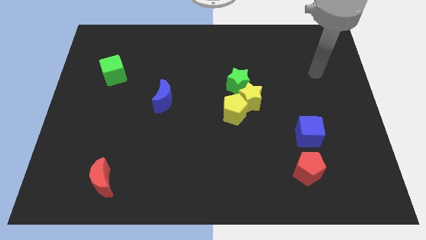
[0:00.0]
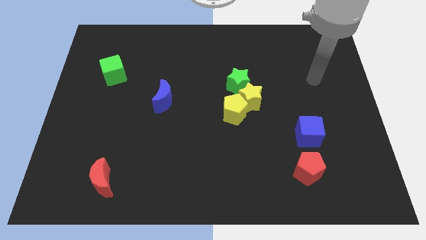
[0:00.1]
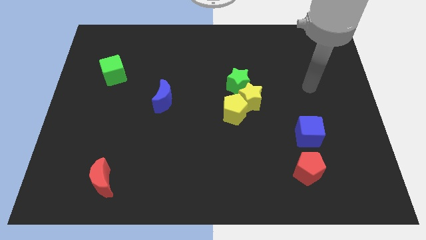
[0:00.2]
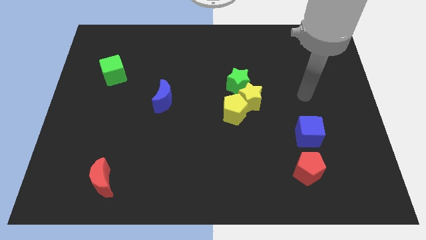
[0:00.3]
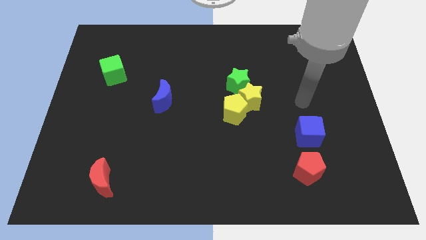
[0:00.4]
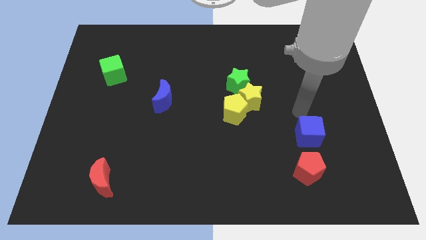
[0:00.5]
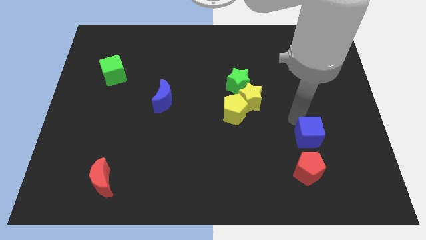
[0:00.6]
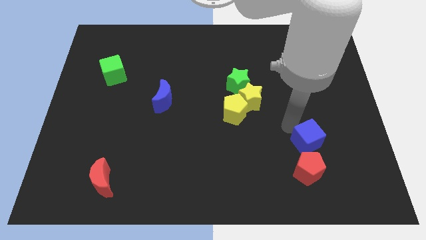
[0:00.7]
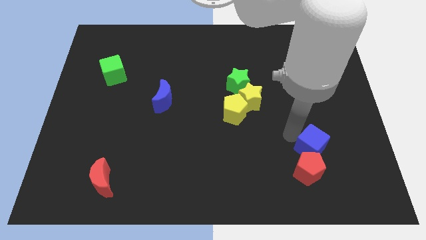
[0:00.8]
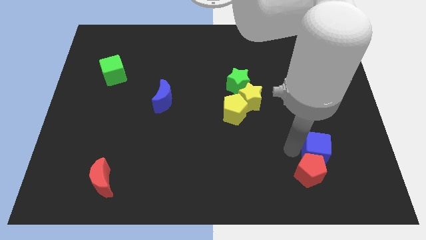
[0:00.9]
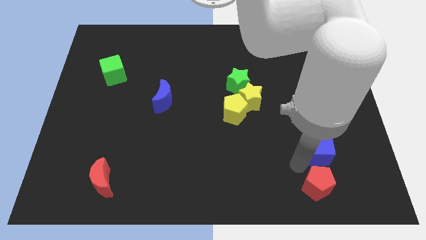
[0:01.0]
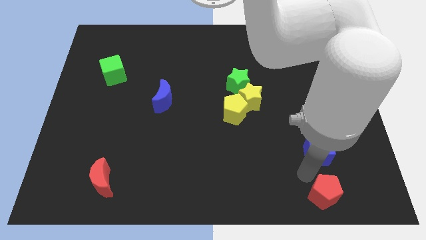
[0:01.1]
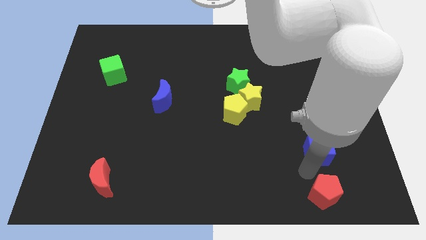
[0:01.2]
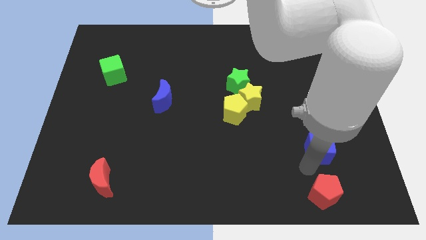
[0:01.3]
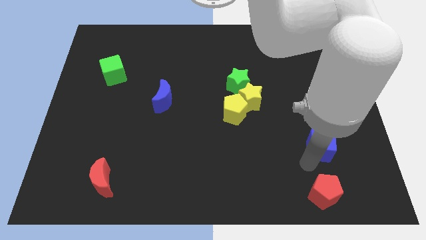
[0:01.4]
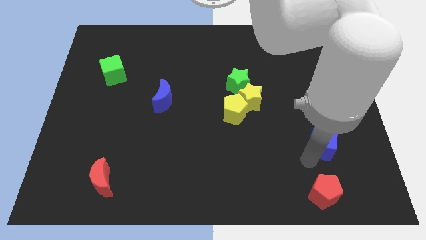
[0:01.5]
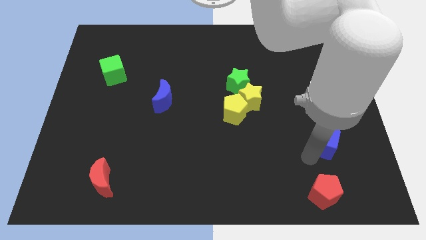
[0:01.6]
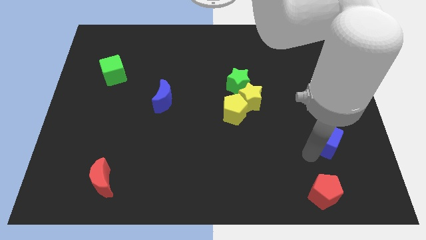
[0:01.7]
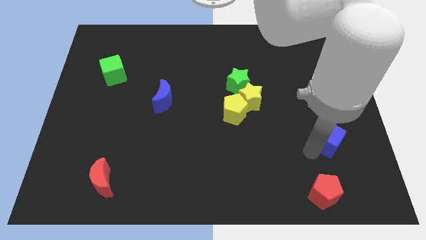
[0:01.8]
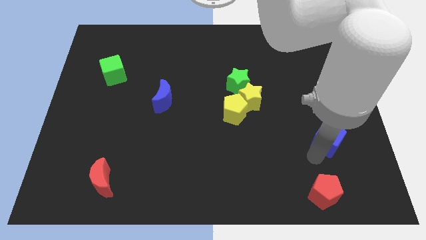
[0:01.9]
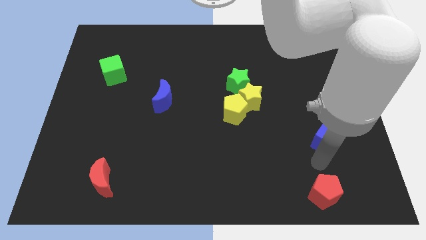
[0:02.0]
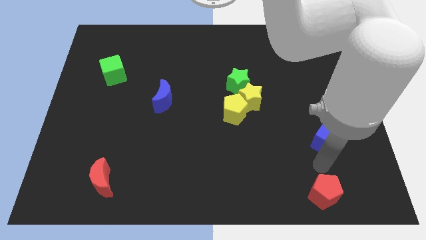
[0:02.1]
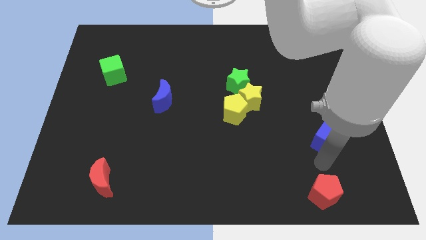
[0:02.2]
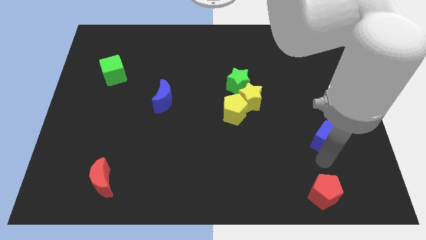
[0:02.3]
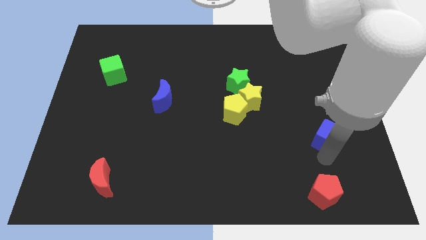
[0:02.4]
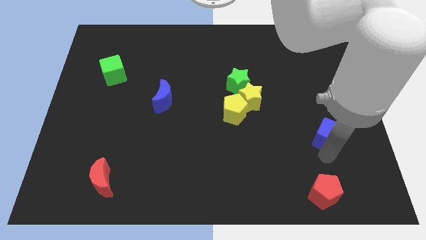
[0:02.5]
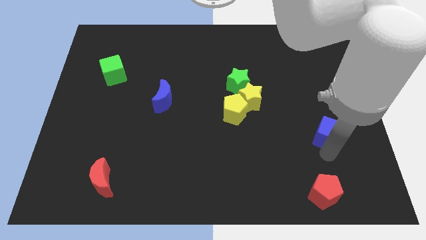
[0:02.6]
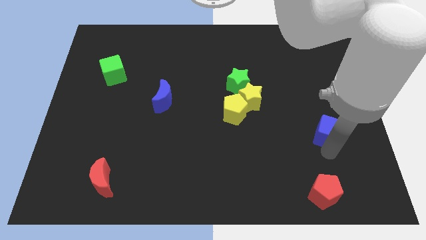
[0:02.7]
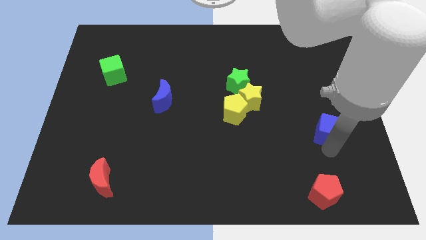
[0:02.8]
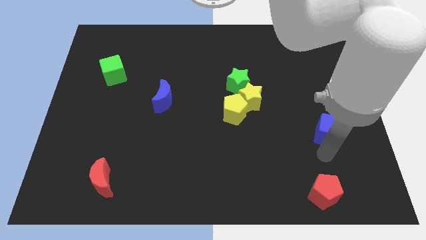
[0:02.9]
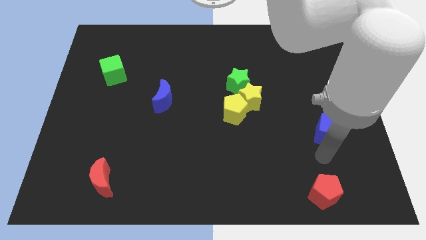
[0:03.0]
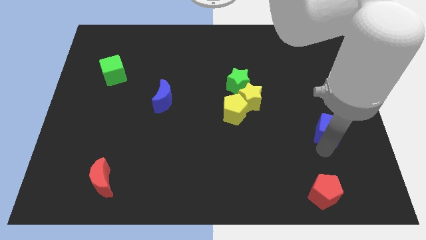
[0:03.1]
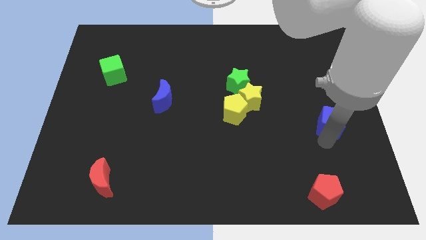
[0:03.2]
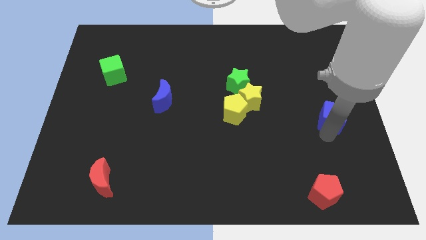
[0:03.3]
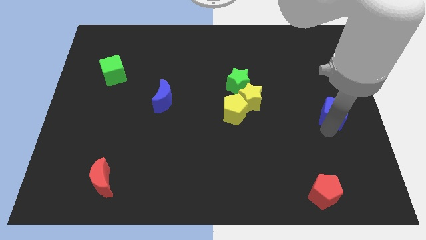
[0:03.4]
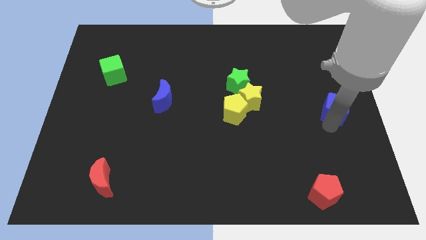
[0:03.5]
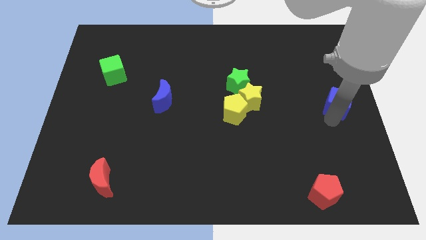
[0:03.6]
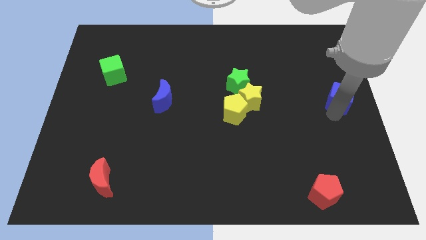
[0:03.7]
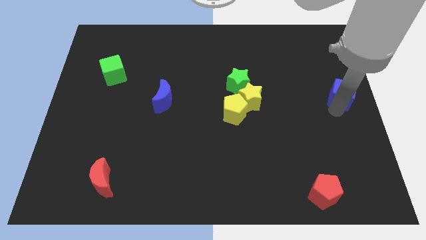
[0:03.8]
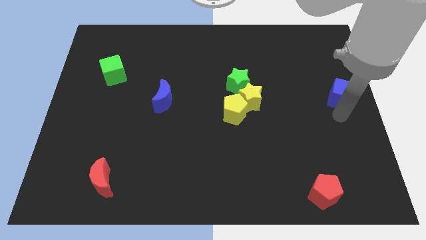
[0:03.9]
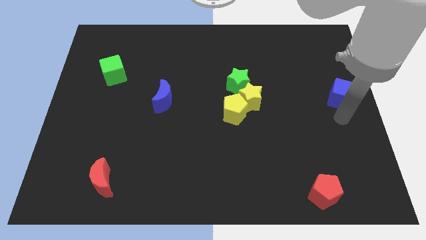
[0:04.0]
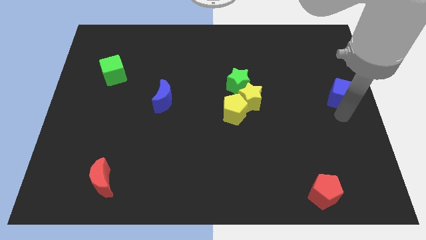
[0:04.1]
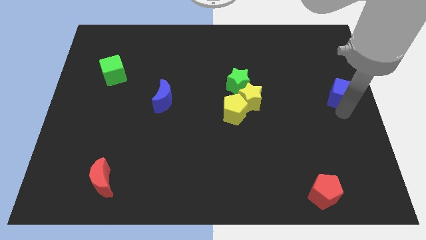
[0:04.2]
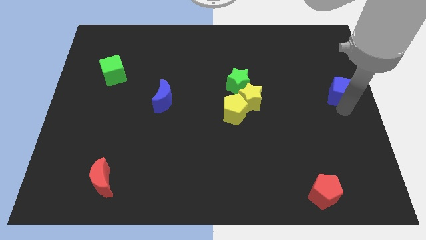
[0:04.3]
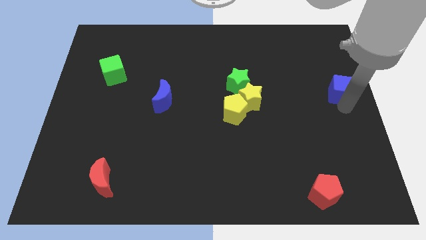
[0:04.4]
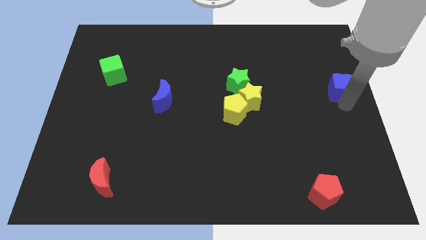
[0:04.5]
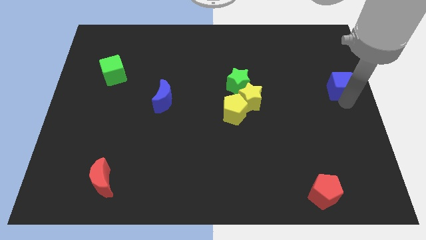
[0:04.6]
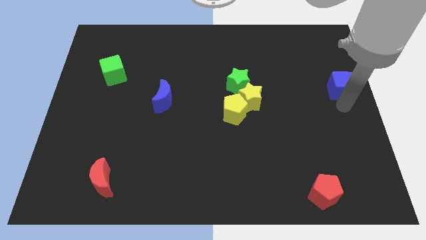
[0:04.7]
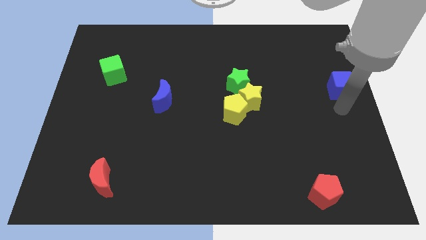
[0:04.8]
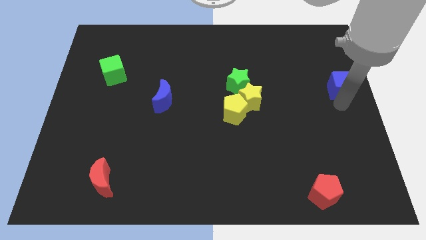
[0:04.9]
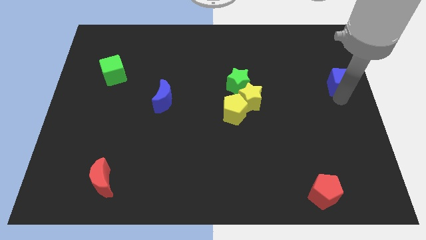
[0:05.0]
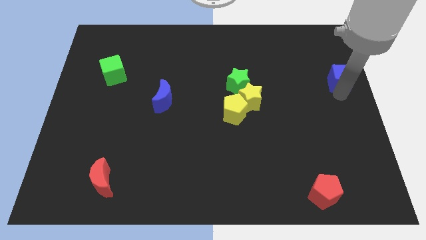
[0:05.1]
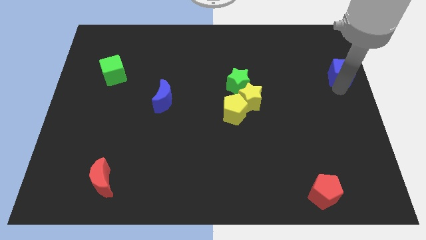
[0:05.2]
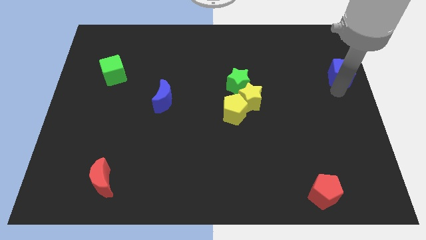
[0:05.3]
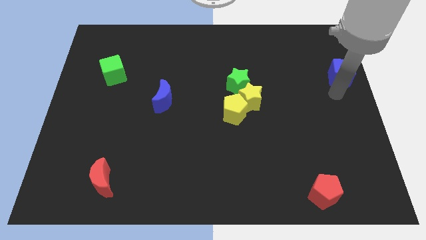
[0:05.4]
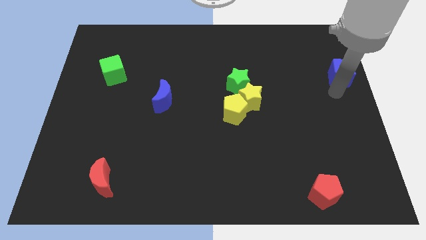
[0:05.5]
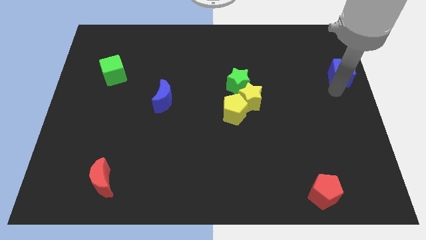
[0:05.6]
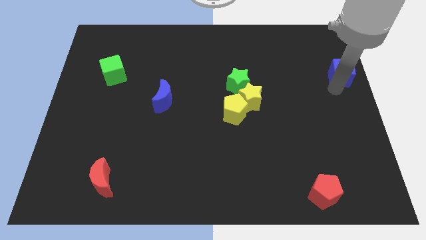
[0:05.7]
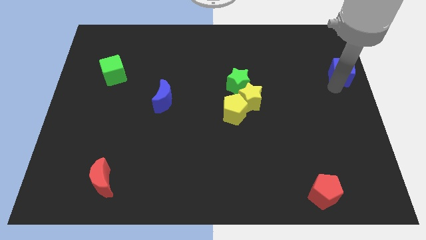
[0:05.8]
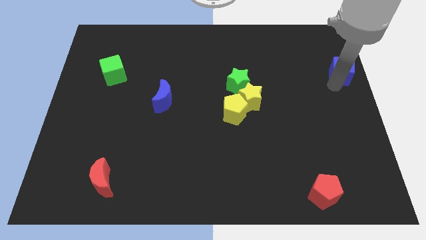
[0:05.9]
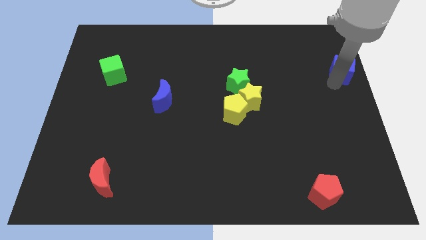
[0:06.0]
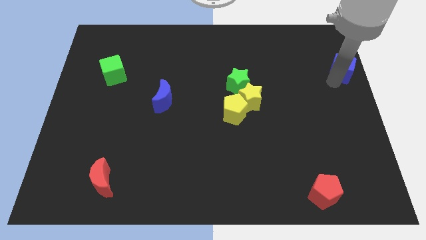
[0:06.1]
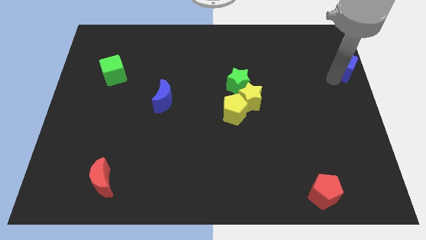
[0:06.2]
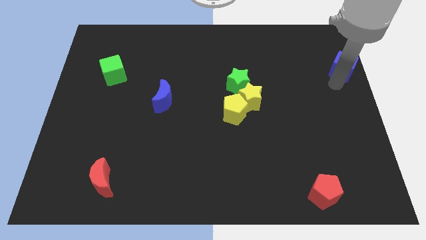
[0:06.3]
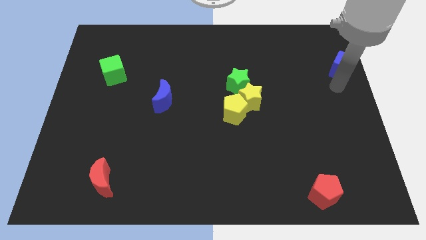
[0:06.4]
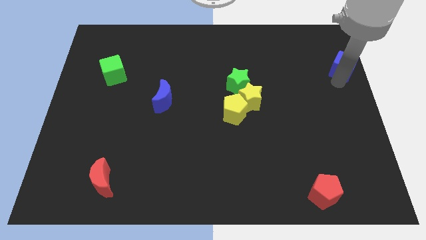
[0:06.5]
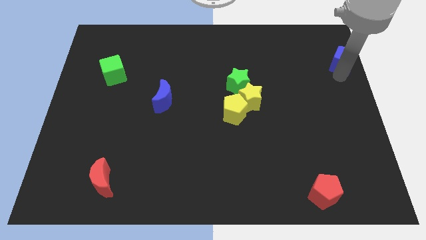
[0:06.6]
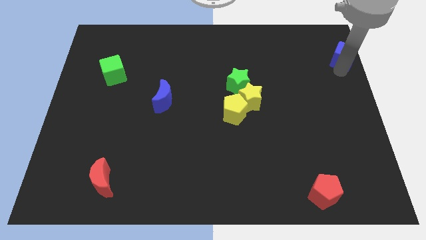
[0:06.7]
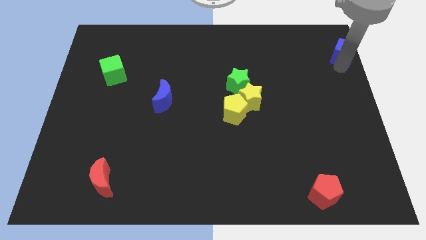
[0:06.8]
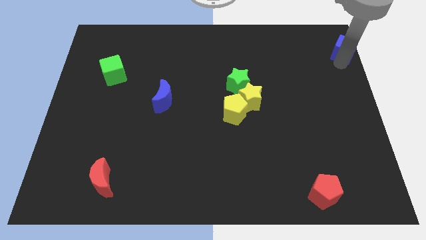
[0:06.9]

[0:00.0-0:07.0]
slide the blue cube to the top right corner
